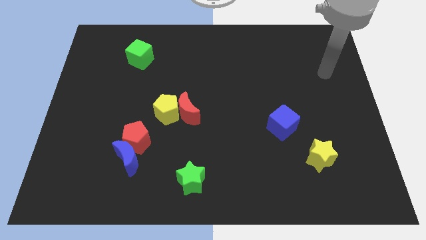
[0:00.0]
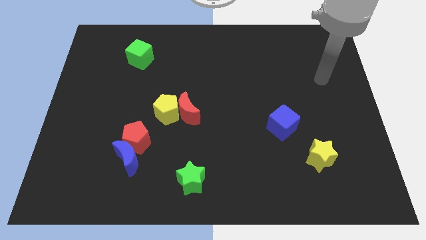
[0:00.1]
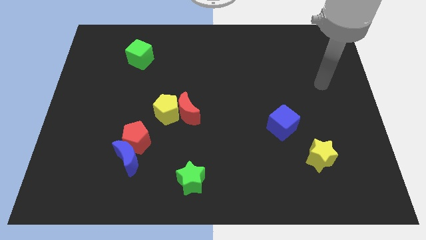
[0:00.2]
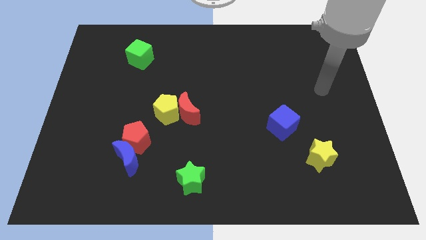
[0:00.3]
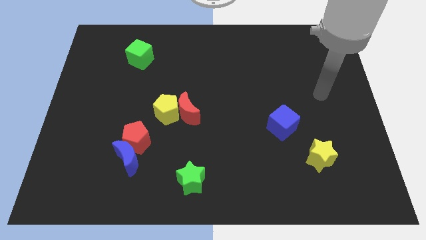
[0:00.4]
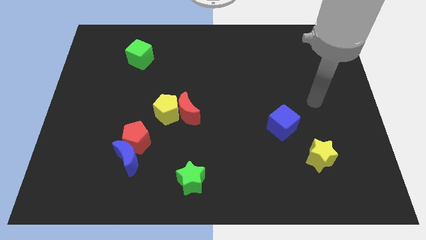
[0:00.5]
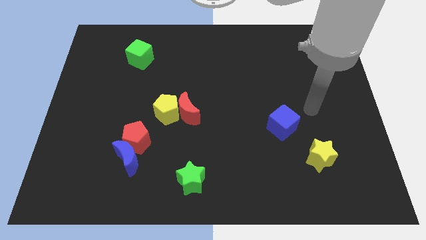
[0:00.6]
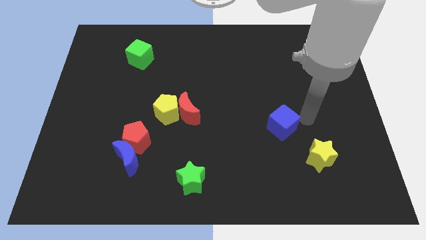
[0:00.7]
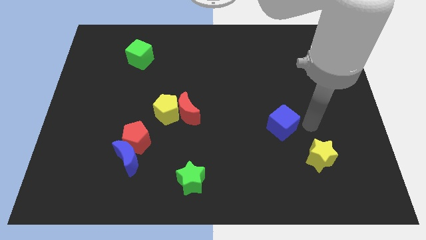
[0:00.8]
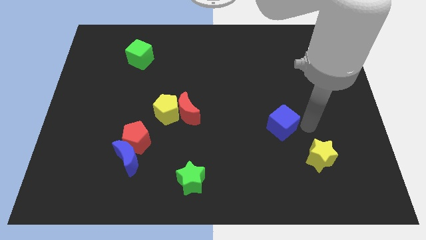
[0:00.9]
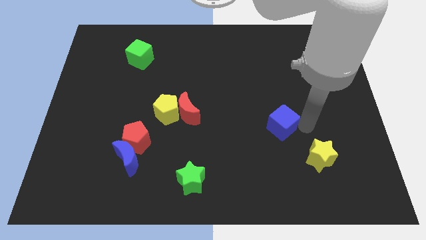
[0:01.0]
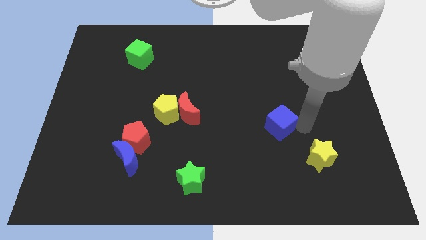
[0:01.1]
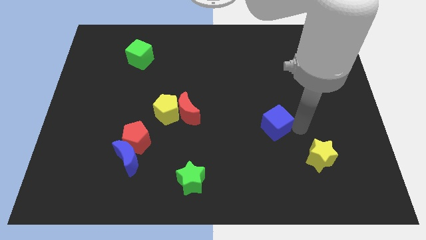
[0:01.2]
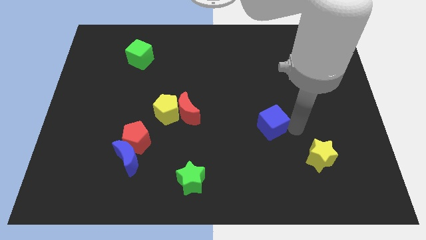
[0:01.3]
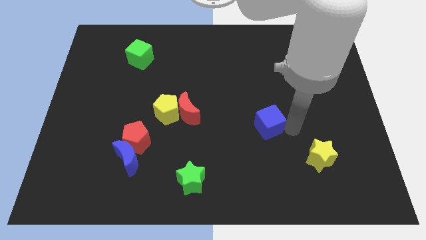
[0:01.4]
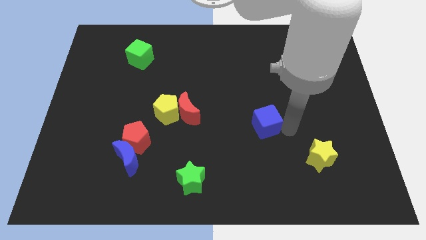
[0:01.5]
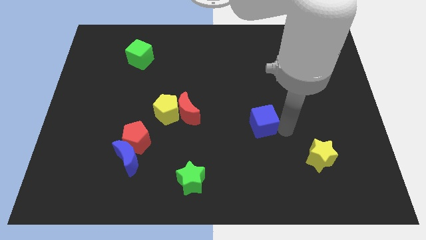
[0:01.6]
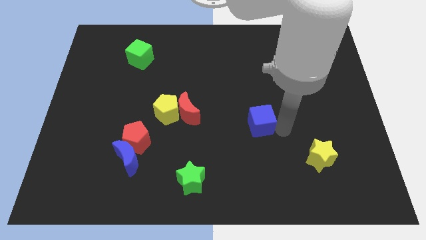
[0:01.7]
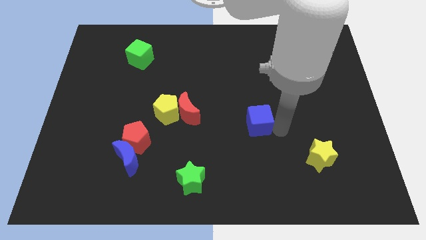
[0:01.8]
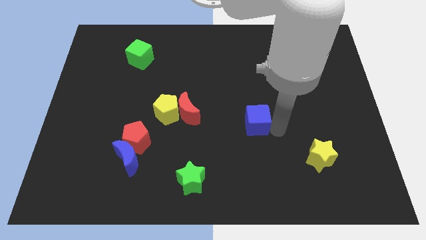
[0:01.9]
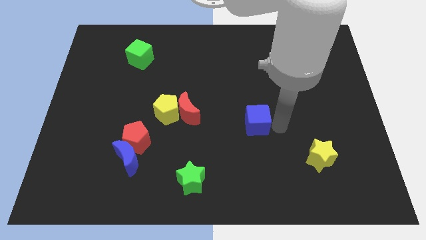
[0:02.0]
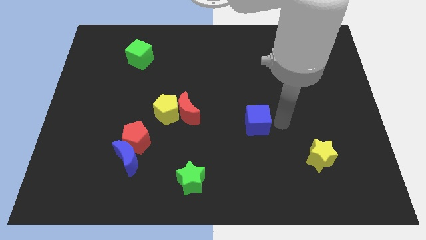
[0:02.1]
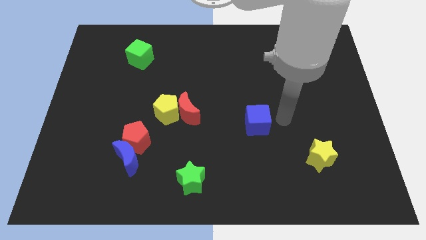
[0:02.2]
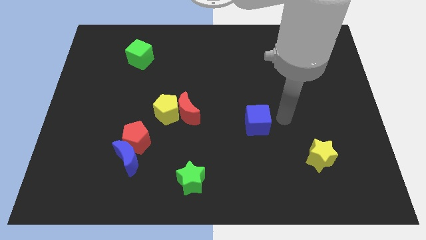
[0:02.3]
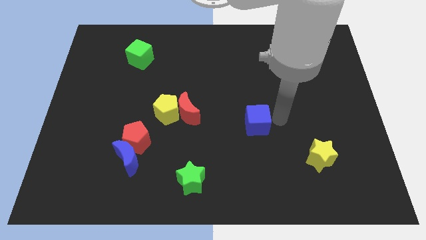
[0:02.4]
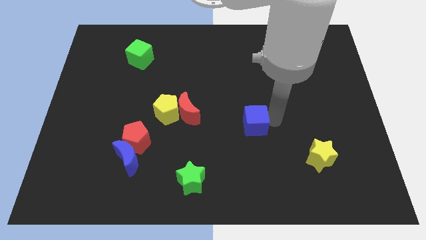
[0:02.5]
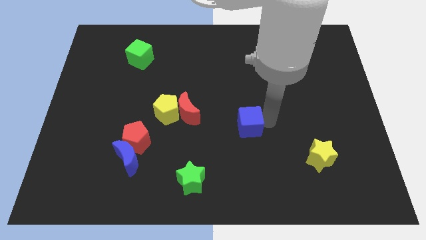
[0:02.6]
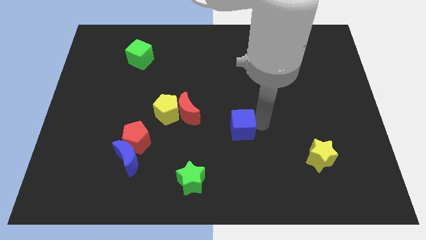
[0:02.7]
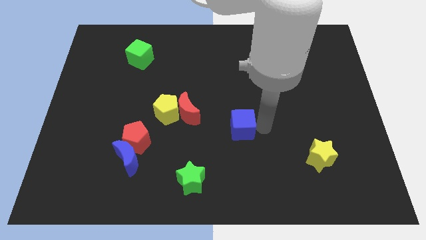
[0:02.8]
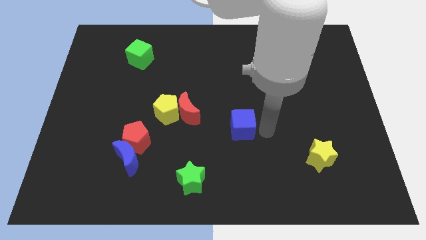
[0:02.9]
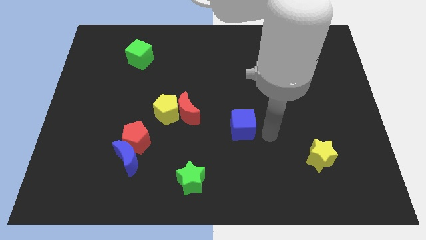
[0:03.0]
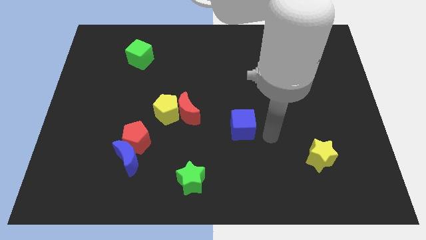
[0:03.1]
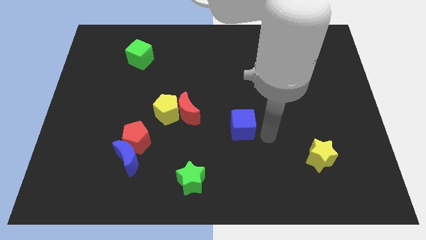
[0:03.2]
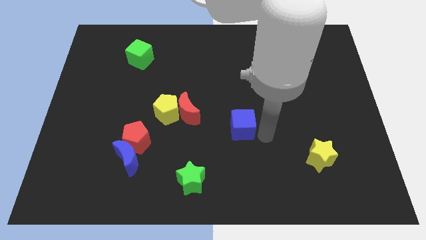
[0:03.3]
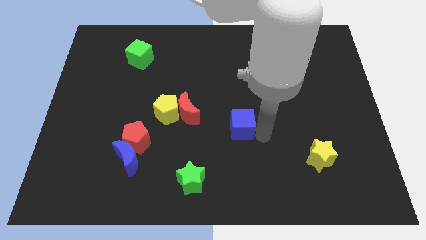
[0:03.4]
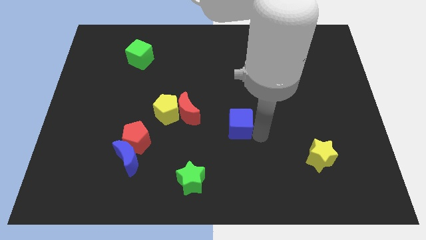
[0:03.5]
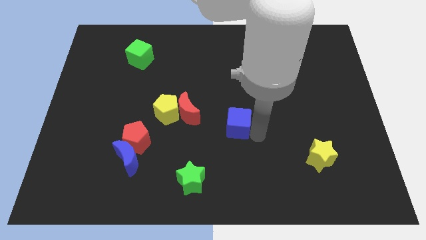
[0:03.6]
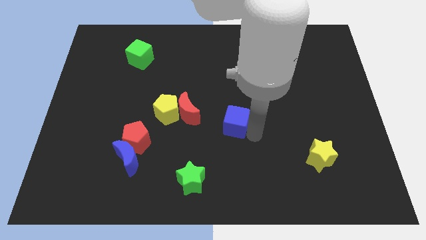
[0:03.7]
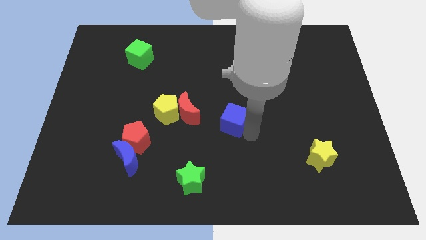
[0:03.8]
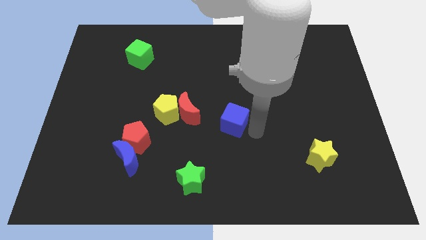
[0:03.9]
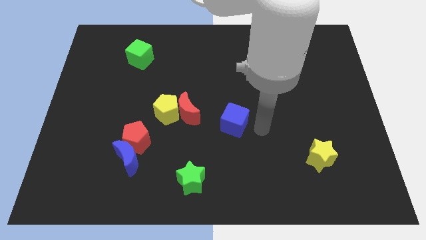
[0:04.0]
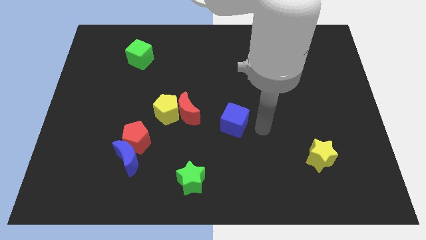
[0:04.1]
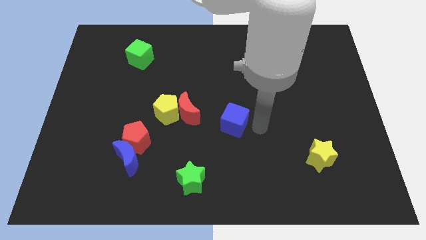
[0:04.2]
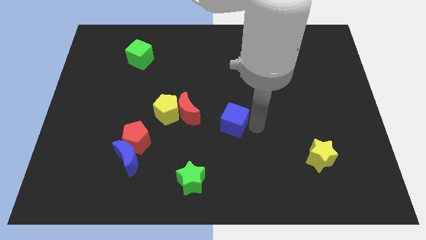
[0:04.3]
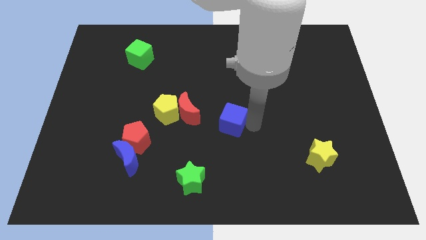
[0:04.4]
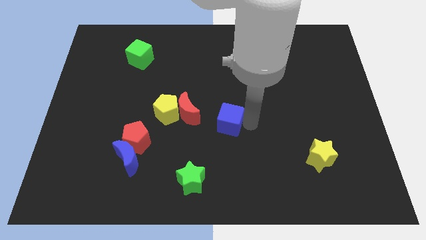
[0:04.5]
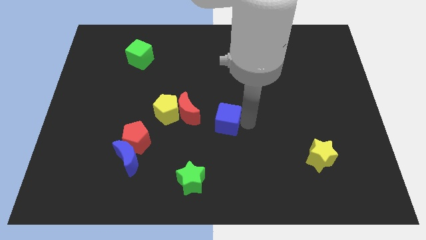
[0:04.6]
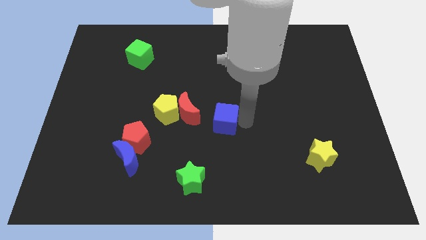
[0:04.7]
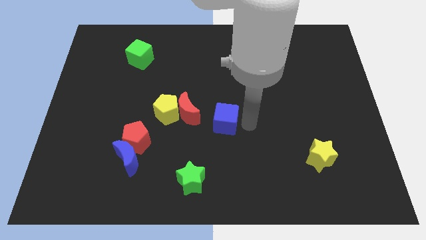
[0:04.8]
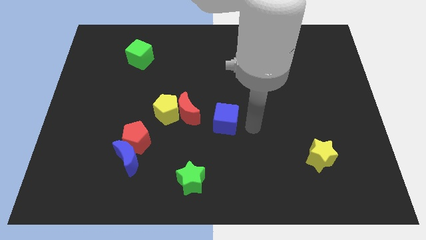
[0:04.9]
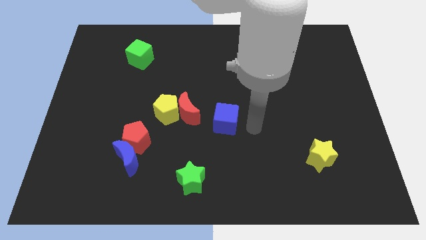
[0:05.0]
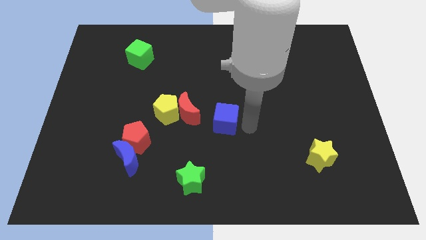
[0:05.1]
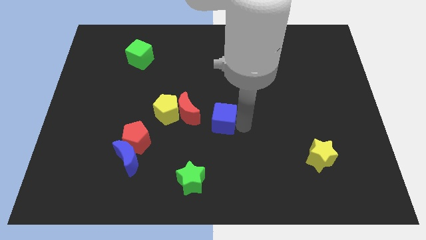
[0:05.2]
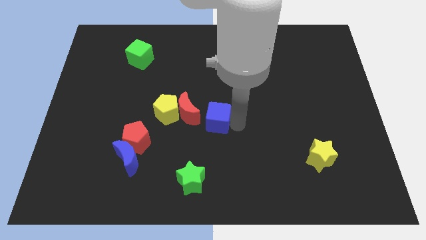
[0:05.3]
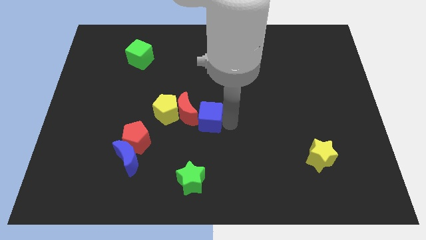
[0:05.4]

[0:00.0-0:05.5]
put the blue cube close to the red moon

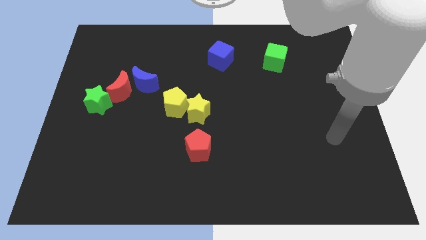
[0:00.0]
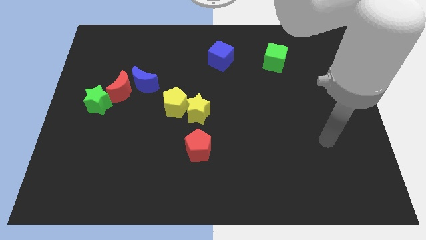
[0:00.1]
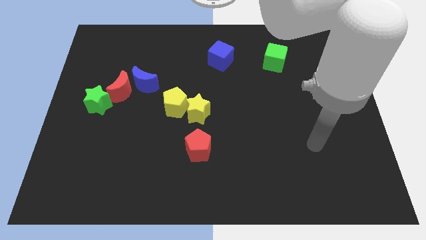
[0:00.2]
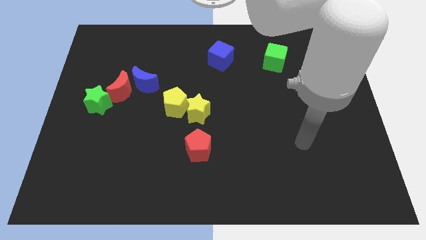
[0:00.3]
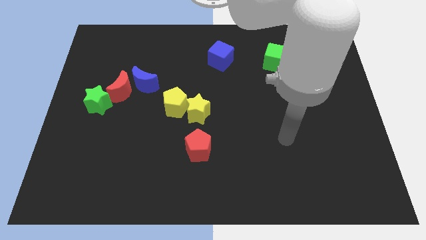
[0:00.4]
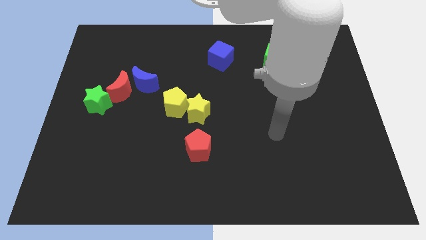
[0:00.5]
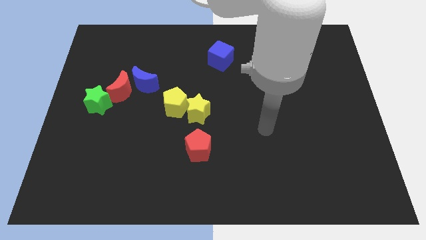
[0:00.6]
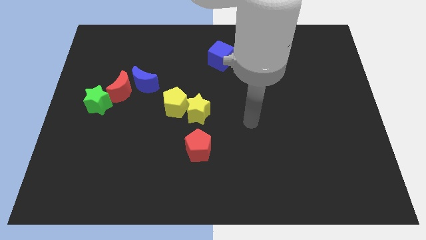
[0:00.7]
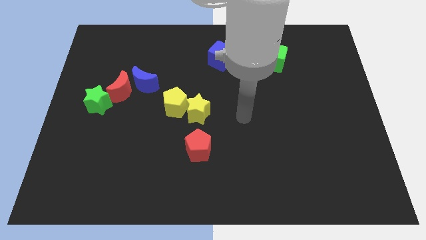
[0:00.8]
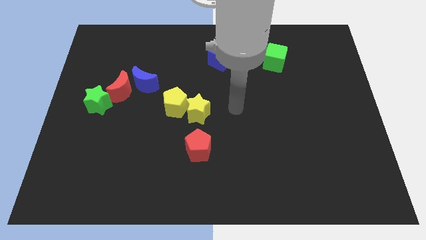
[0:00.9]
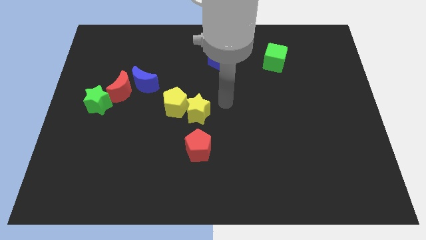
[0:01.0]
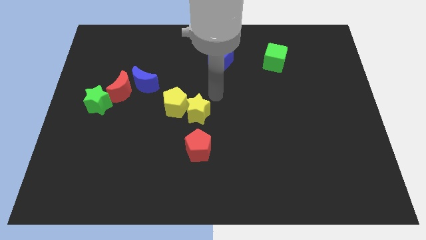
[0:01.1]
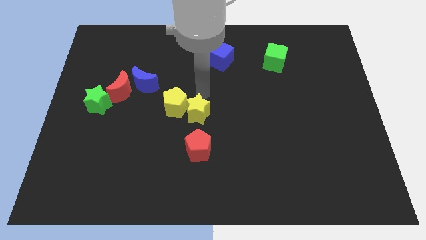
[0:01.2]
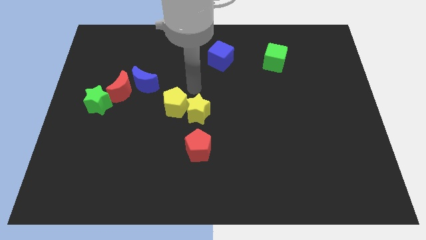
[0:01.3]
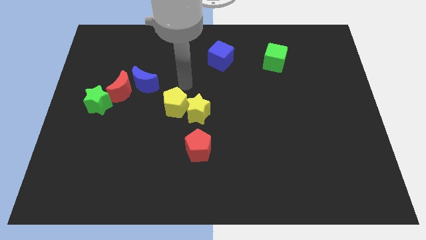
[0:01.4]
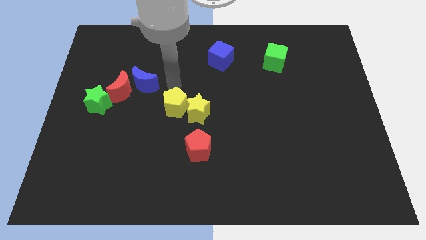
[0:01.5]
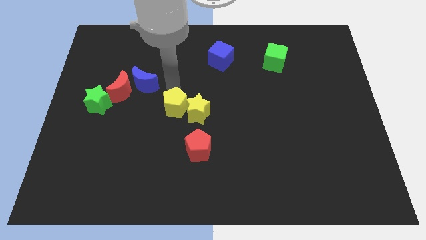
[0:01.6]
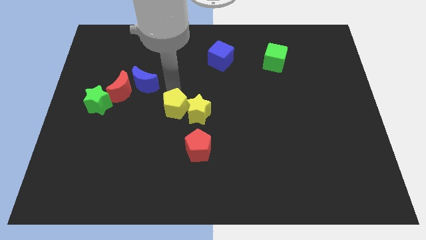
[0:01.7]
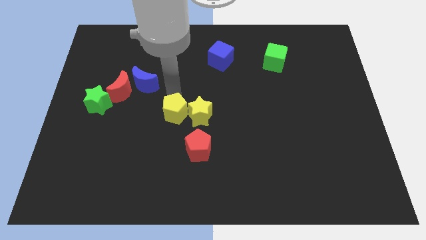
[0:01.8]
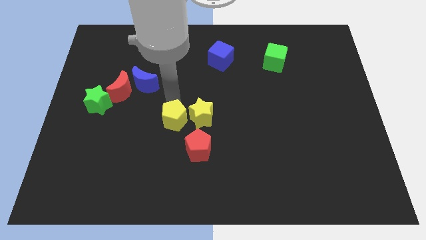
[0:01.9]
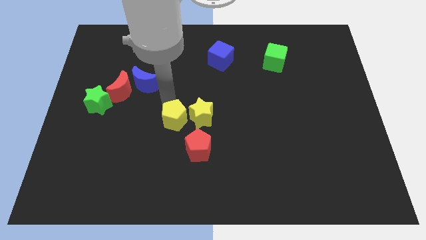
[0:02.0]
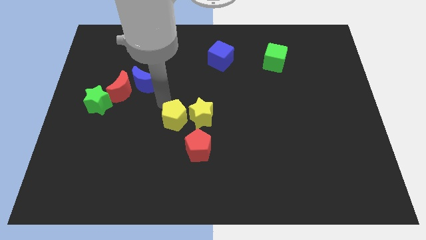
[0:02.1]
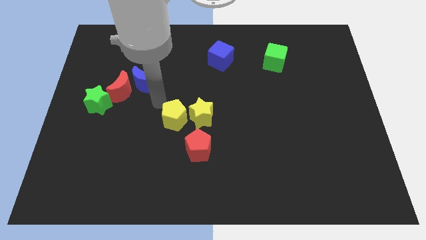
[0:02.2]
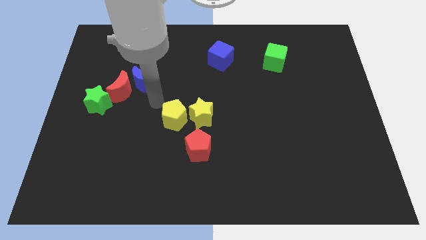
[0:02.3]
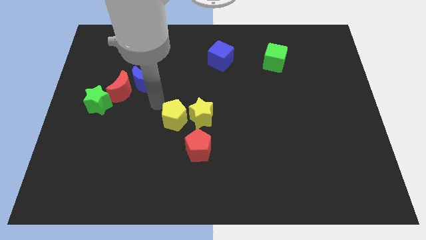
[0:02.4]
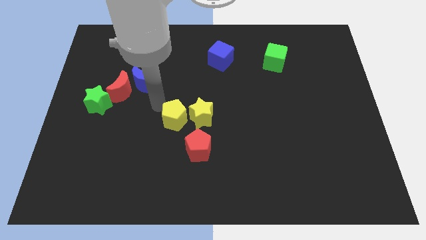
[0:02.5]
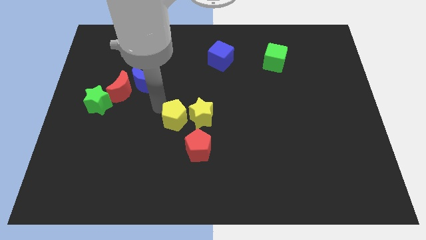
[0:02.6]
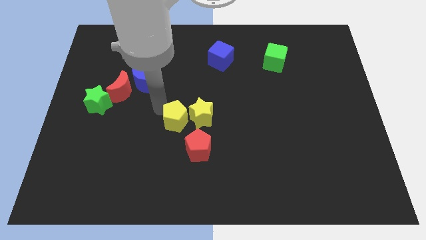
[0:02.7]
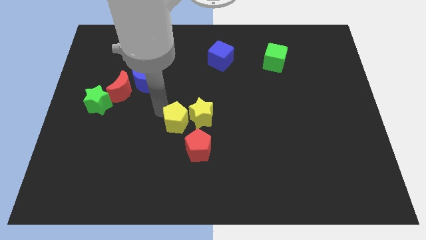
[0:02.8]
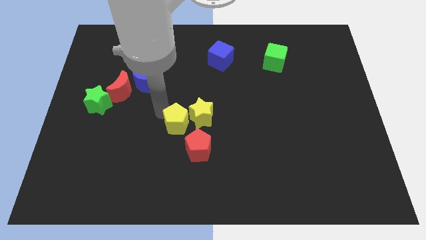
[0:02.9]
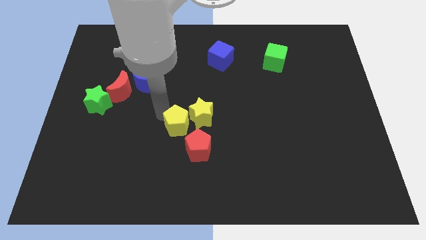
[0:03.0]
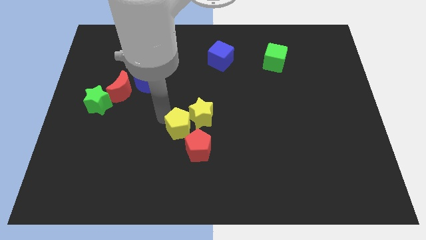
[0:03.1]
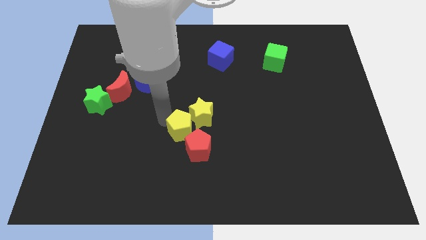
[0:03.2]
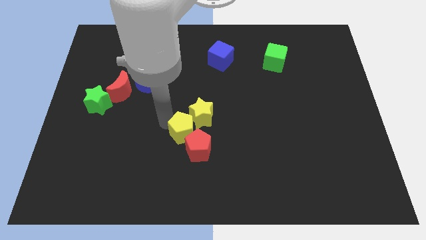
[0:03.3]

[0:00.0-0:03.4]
move the yellow pentagon close to the red pentagon
